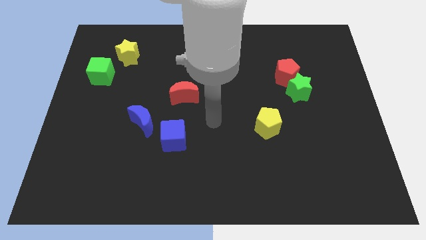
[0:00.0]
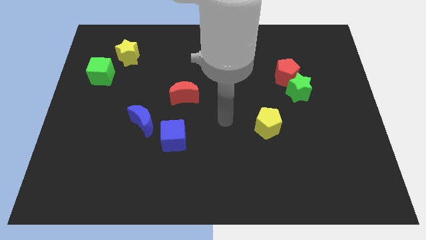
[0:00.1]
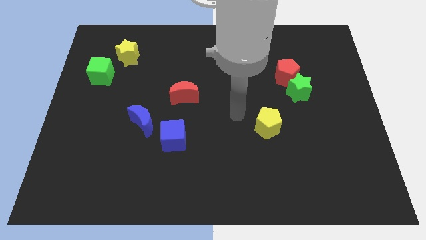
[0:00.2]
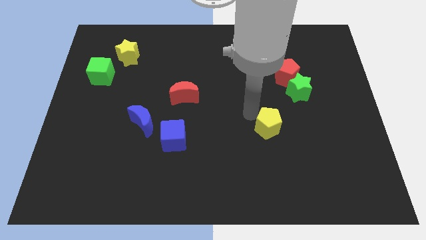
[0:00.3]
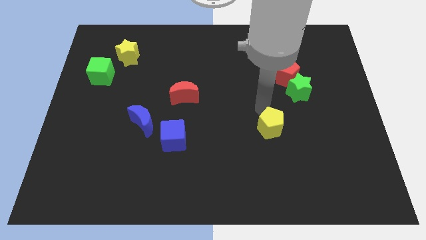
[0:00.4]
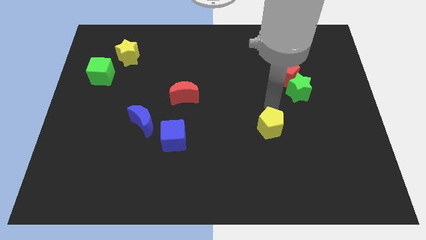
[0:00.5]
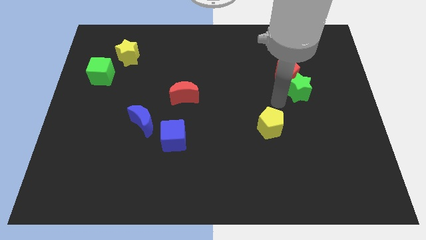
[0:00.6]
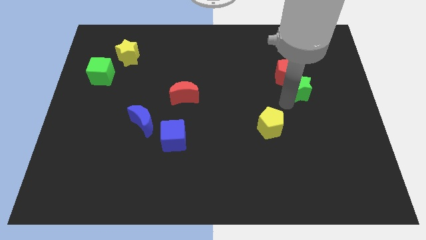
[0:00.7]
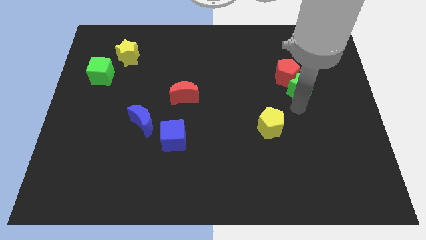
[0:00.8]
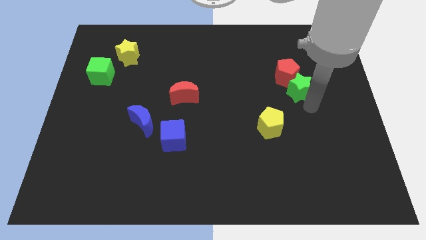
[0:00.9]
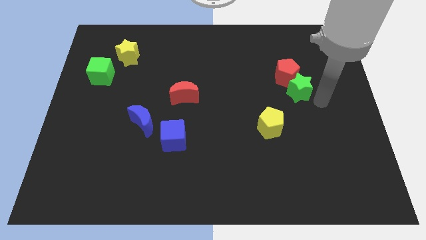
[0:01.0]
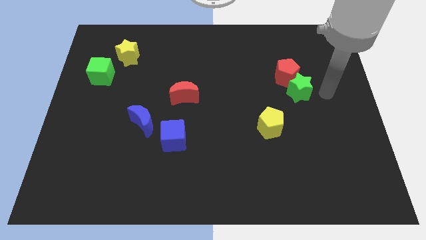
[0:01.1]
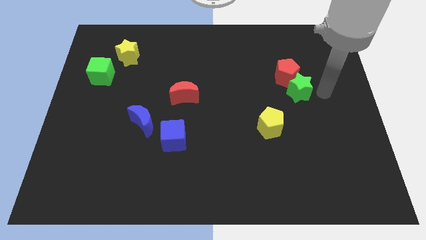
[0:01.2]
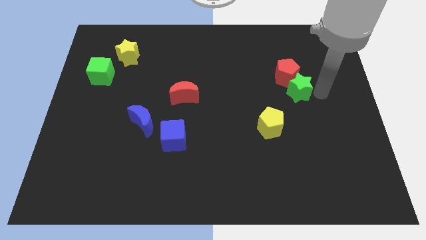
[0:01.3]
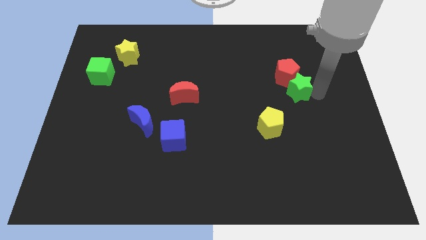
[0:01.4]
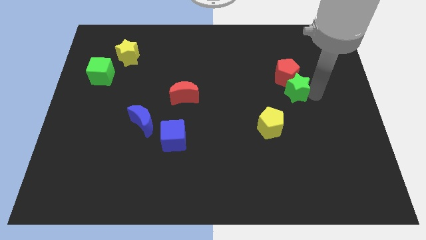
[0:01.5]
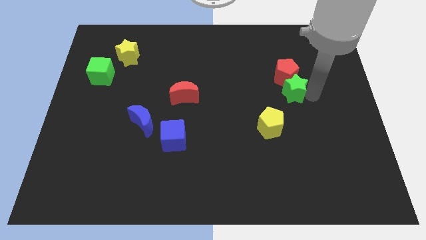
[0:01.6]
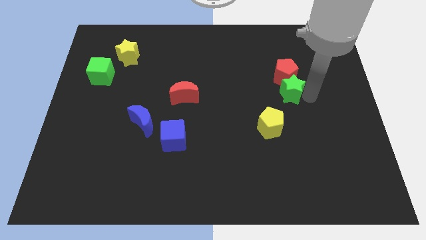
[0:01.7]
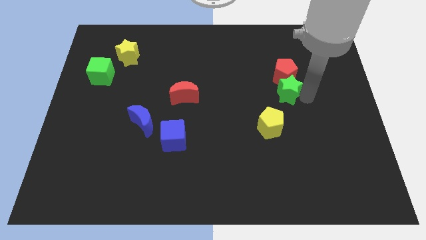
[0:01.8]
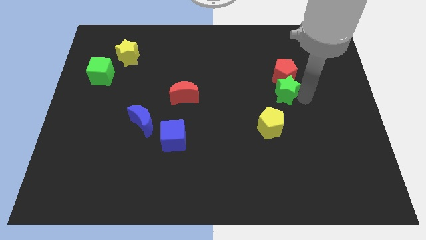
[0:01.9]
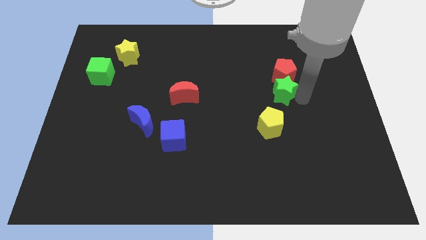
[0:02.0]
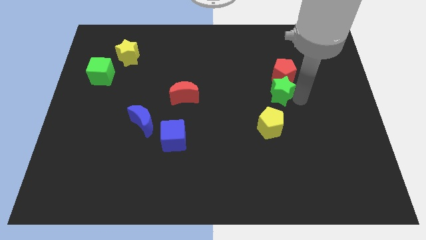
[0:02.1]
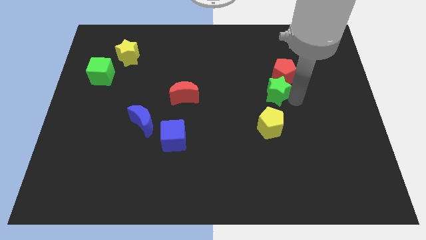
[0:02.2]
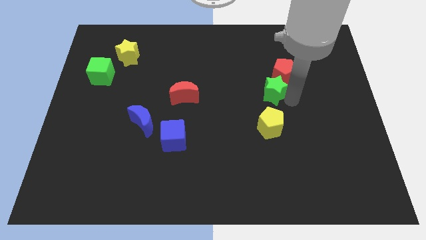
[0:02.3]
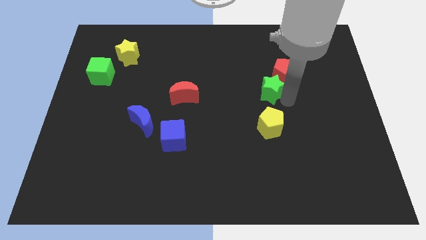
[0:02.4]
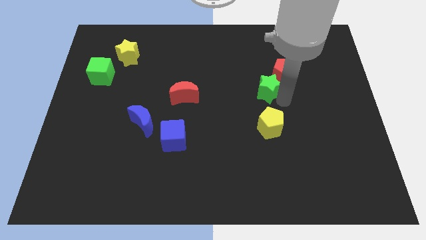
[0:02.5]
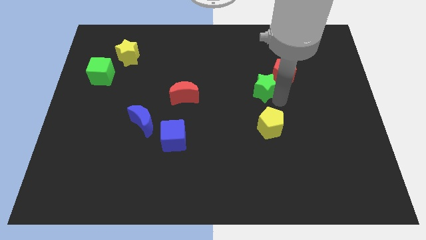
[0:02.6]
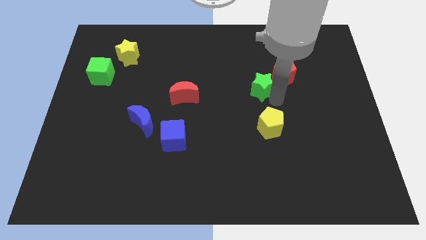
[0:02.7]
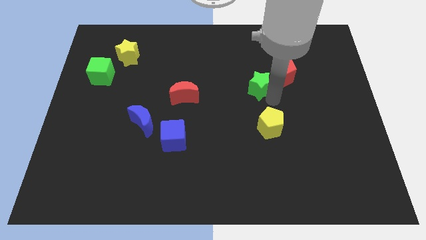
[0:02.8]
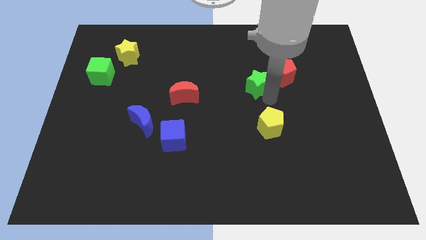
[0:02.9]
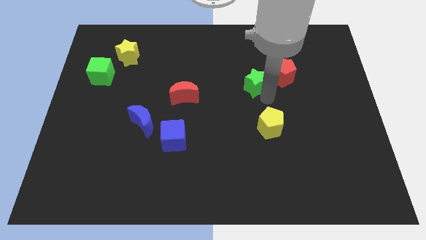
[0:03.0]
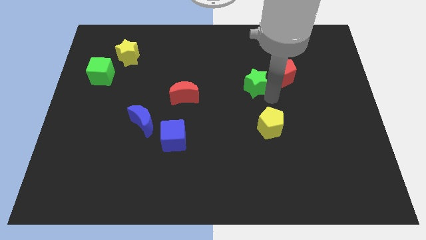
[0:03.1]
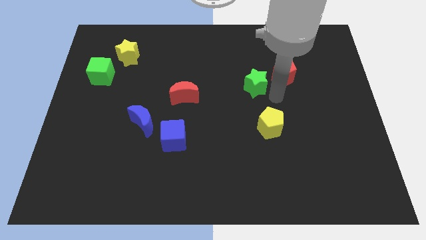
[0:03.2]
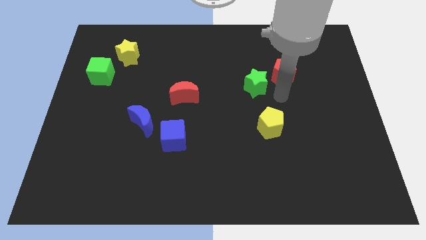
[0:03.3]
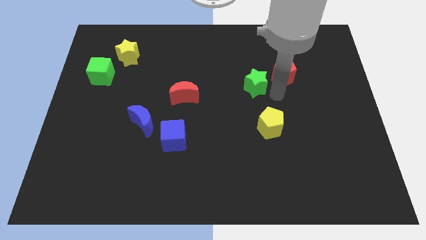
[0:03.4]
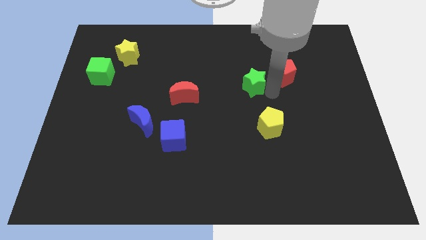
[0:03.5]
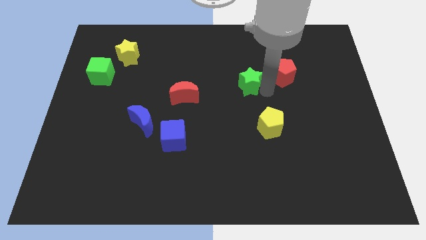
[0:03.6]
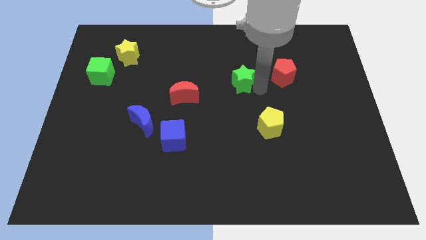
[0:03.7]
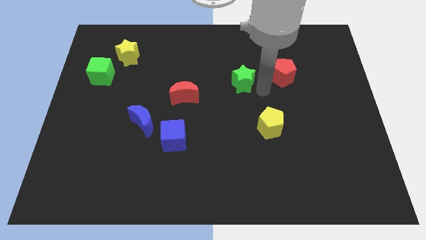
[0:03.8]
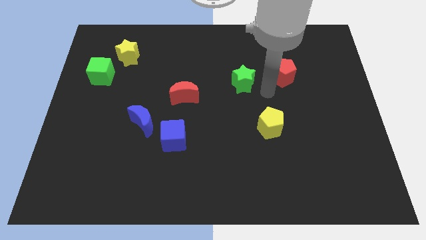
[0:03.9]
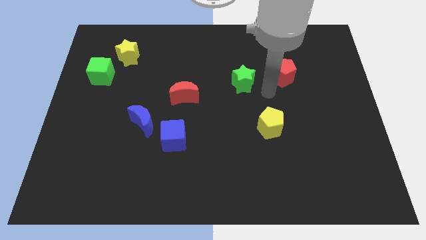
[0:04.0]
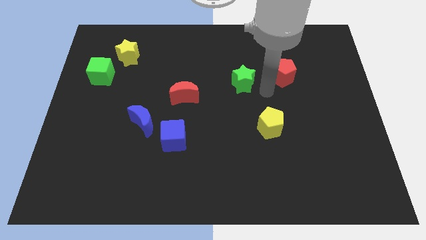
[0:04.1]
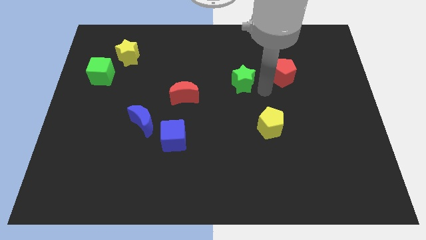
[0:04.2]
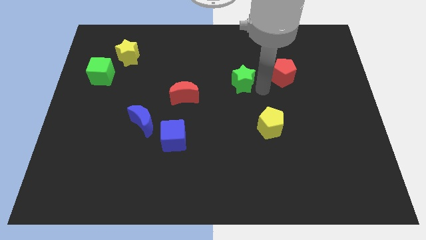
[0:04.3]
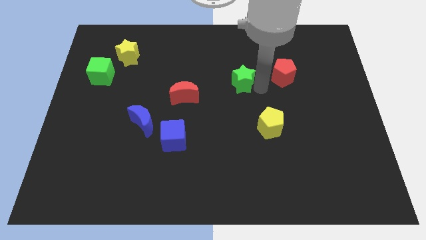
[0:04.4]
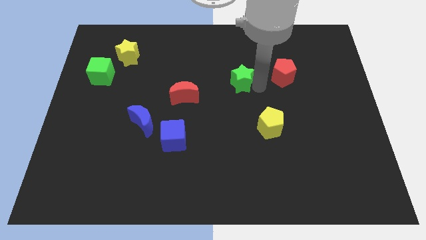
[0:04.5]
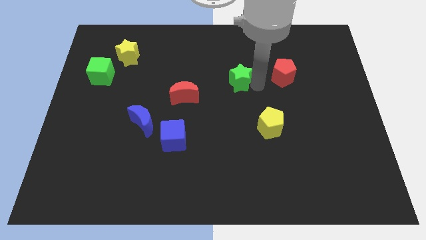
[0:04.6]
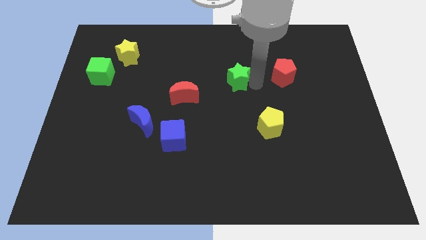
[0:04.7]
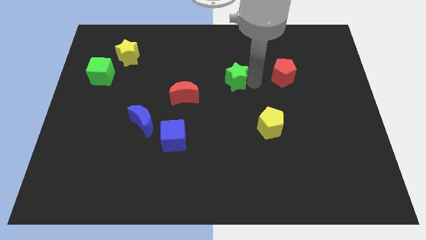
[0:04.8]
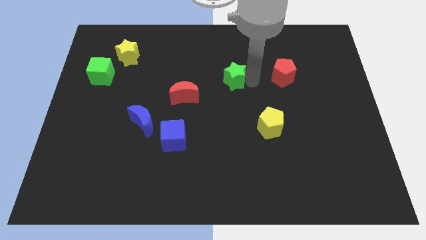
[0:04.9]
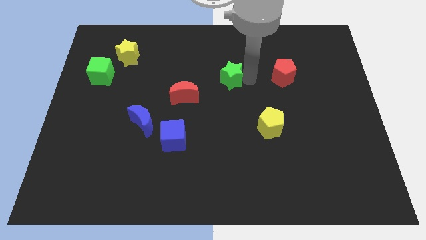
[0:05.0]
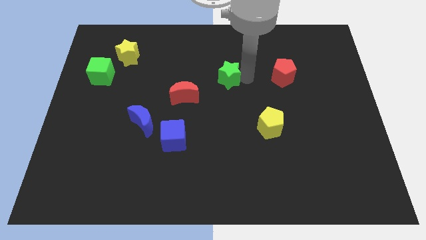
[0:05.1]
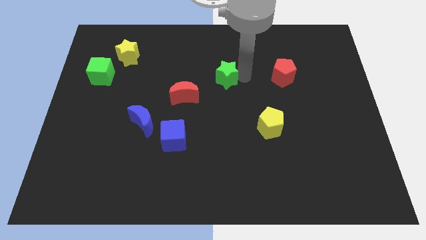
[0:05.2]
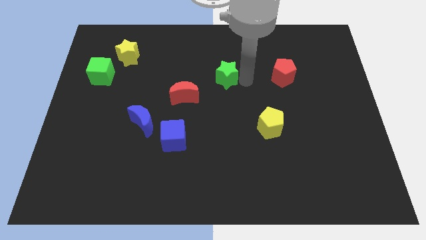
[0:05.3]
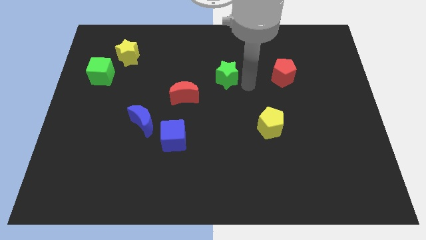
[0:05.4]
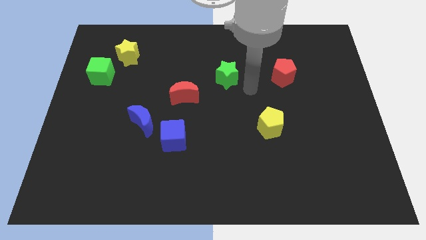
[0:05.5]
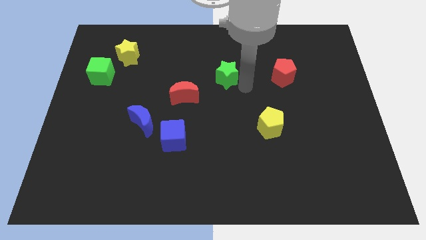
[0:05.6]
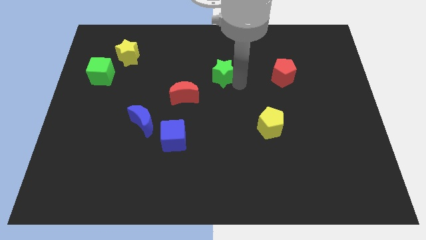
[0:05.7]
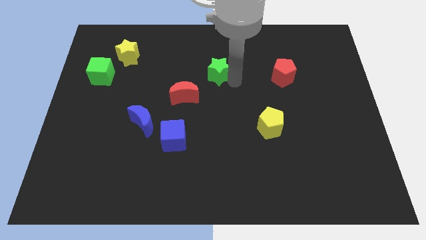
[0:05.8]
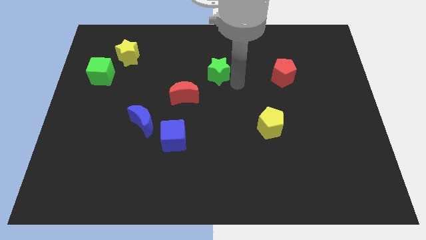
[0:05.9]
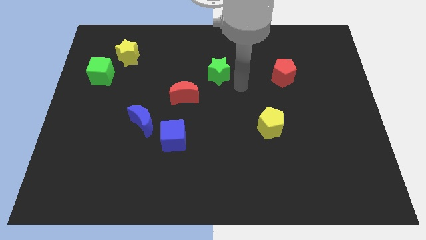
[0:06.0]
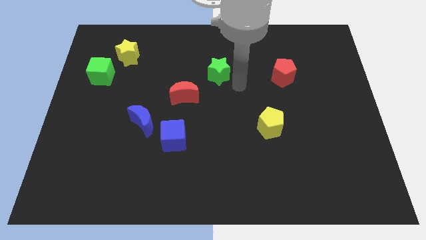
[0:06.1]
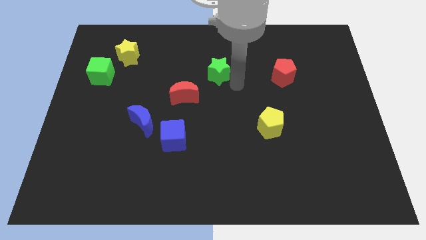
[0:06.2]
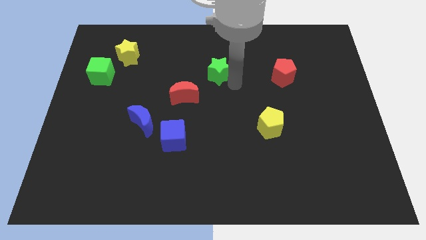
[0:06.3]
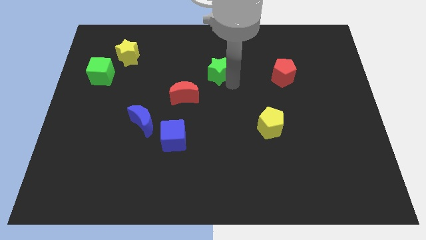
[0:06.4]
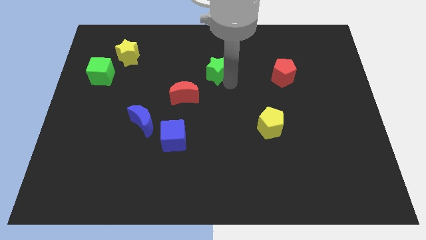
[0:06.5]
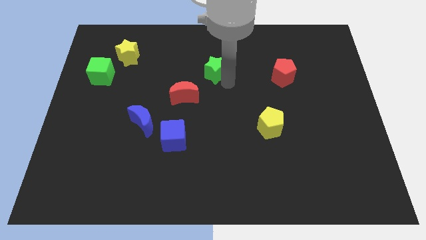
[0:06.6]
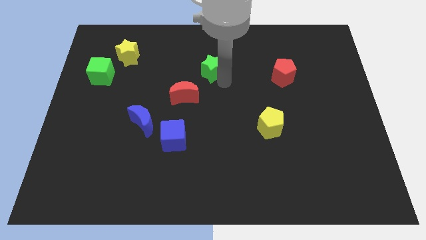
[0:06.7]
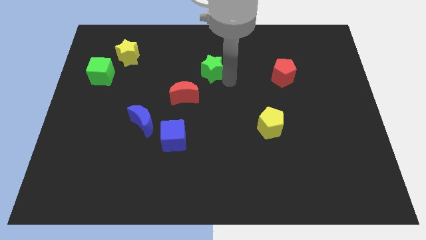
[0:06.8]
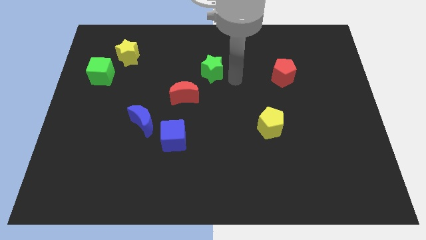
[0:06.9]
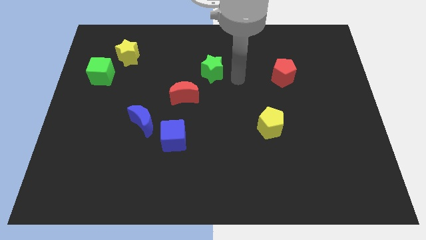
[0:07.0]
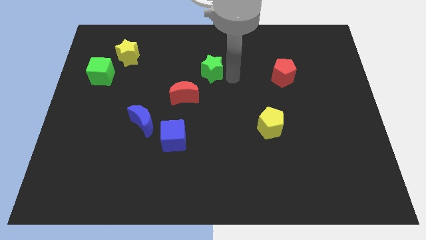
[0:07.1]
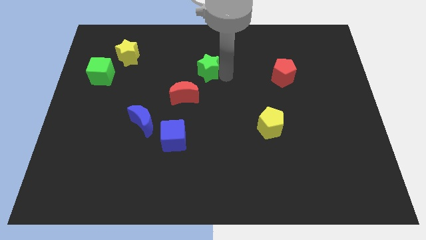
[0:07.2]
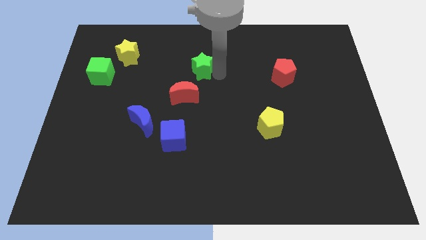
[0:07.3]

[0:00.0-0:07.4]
move the green star to the top side of the red moon
